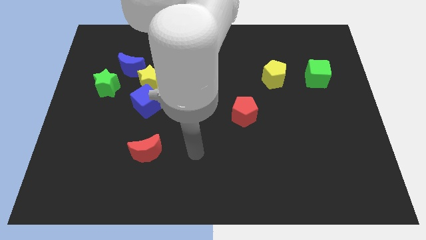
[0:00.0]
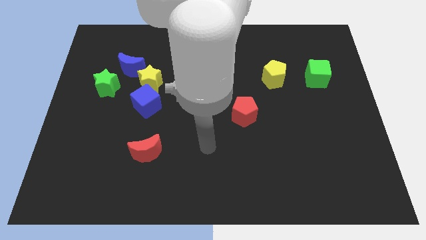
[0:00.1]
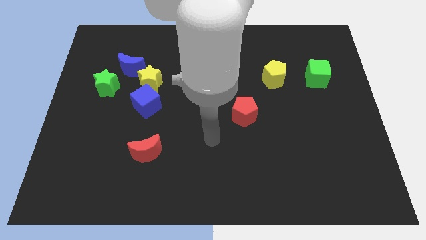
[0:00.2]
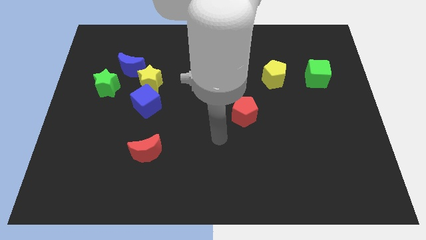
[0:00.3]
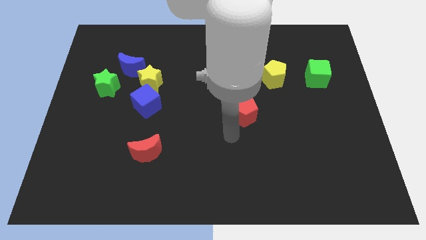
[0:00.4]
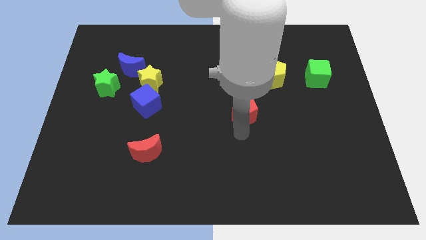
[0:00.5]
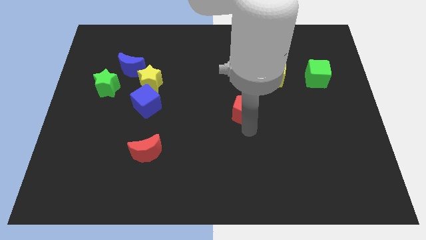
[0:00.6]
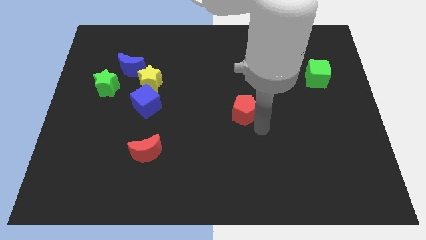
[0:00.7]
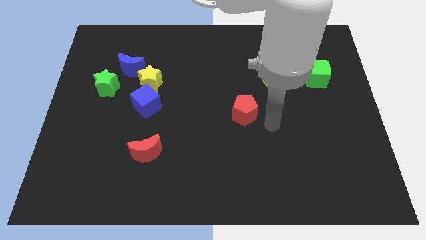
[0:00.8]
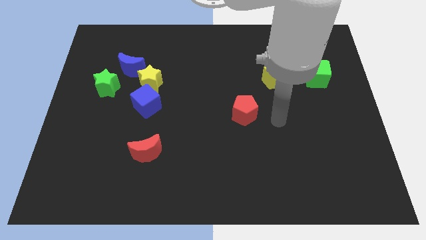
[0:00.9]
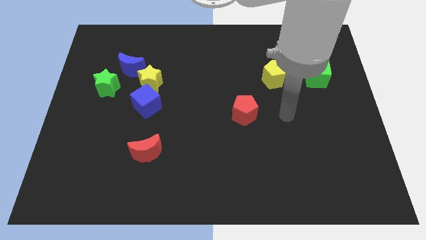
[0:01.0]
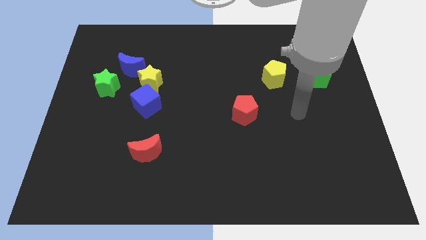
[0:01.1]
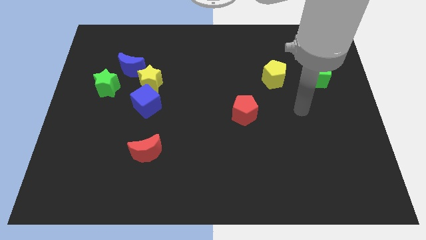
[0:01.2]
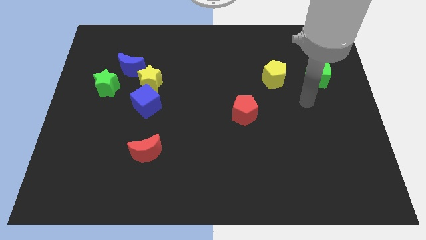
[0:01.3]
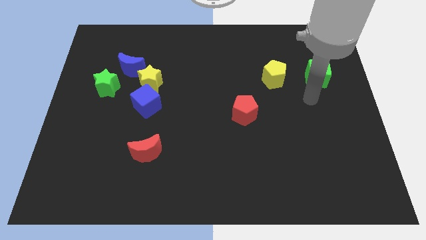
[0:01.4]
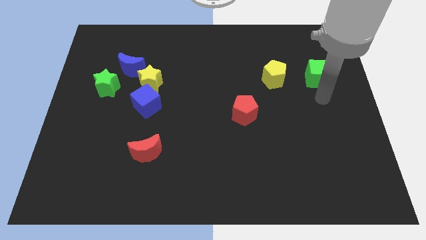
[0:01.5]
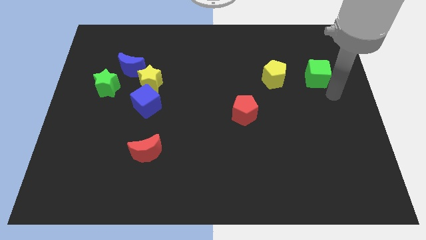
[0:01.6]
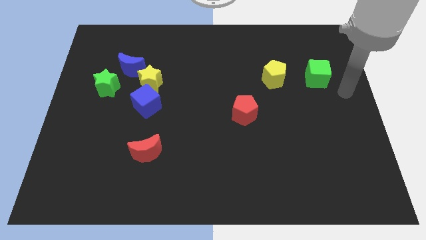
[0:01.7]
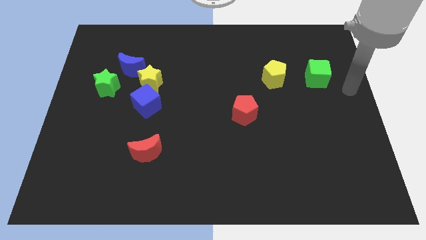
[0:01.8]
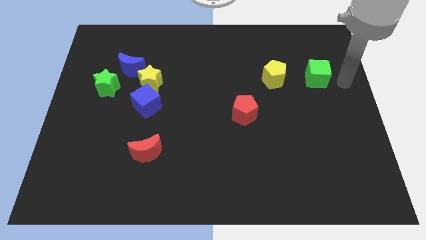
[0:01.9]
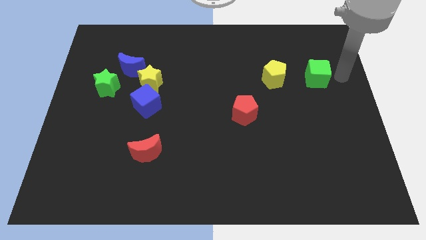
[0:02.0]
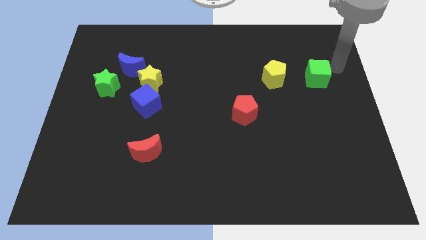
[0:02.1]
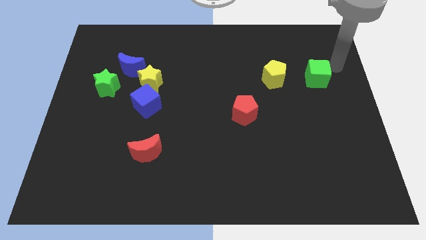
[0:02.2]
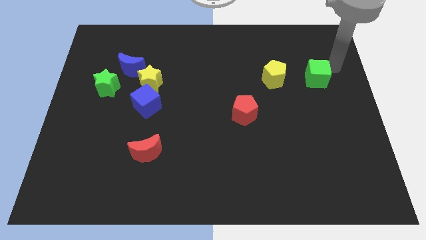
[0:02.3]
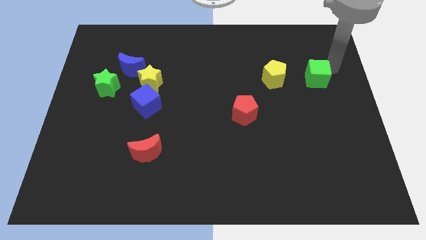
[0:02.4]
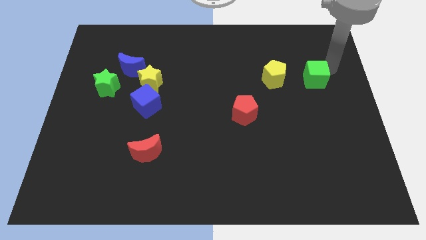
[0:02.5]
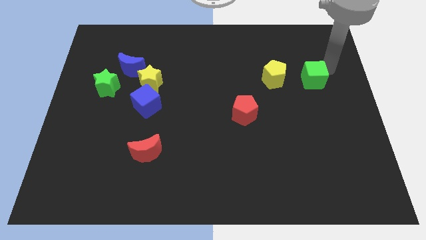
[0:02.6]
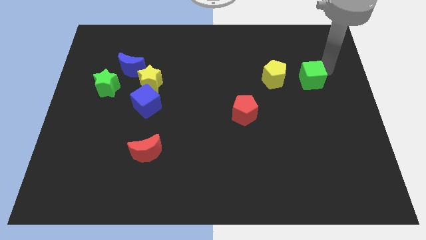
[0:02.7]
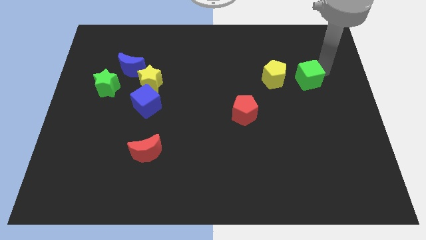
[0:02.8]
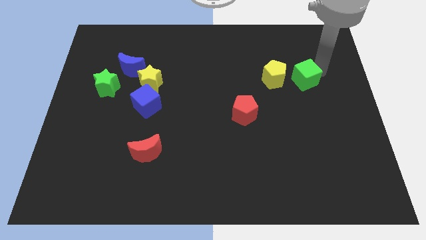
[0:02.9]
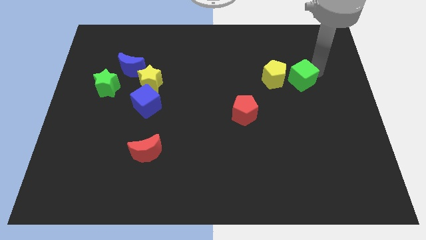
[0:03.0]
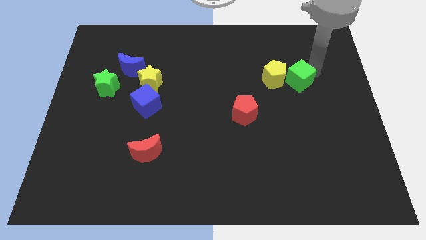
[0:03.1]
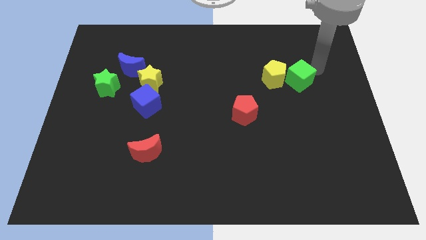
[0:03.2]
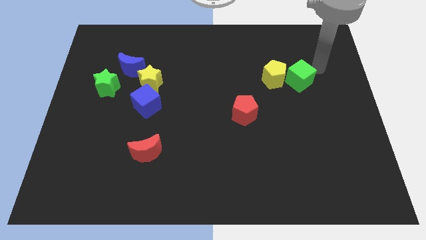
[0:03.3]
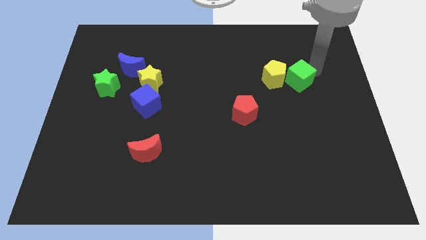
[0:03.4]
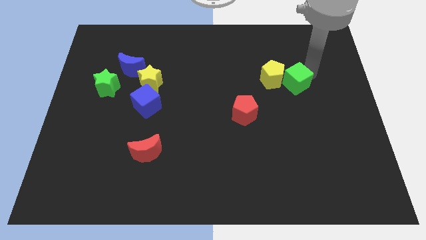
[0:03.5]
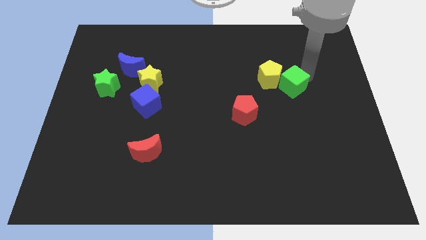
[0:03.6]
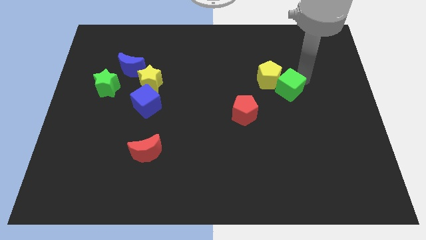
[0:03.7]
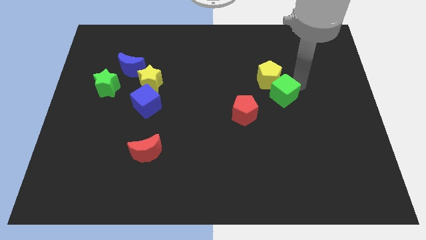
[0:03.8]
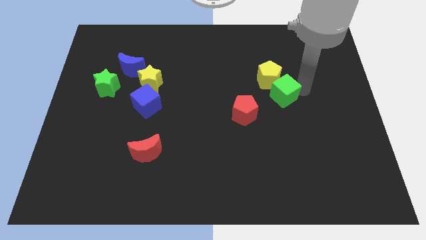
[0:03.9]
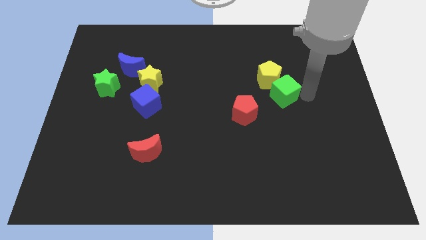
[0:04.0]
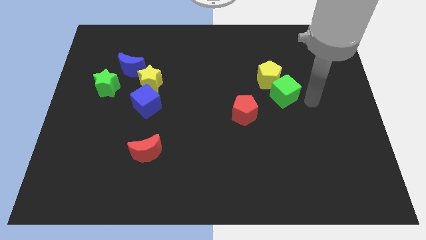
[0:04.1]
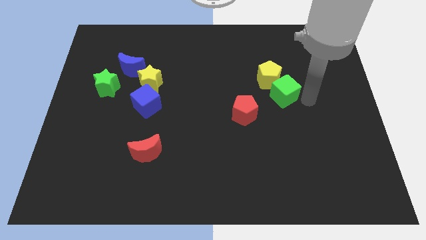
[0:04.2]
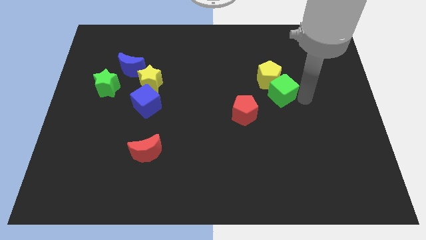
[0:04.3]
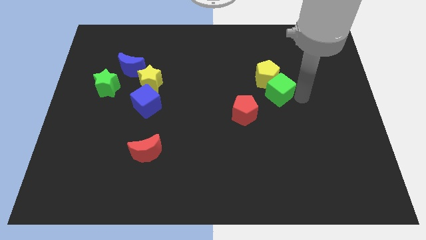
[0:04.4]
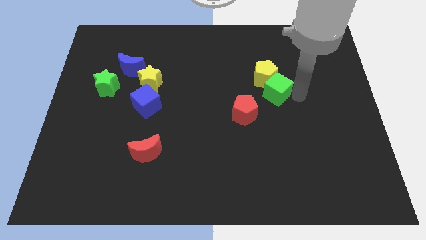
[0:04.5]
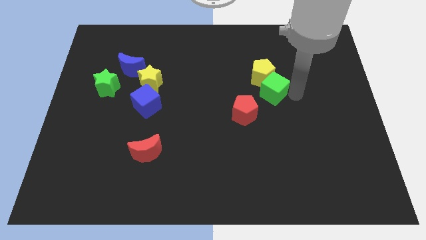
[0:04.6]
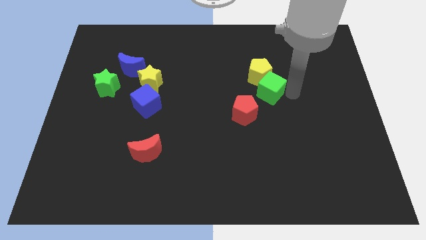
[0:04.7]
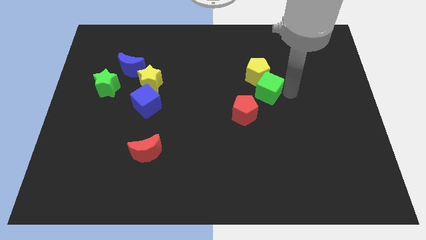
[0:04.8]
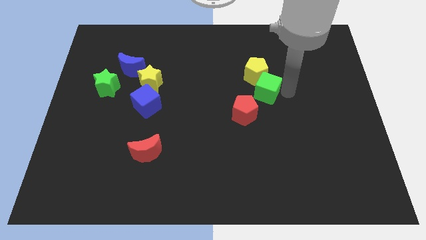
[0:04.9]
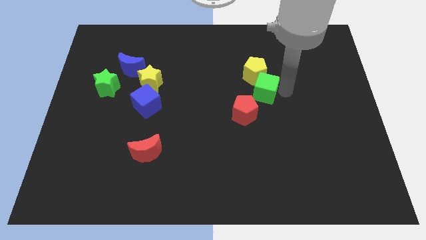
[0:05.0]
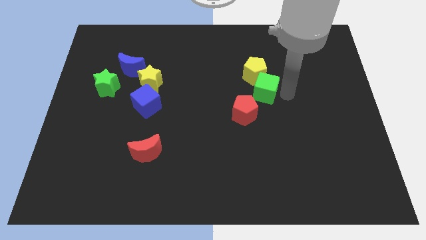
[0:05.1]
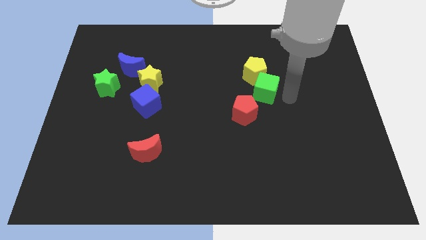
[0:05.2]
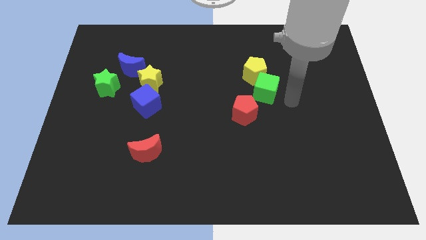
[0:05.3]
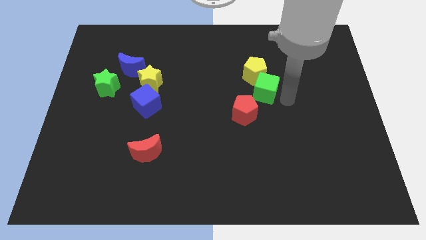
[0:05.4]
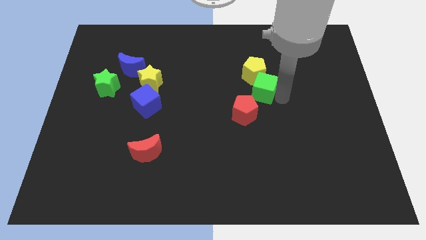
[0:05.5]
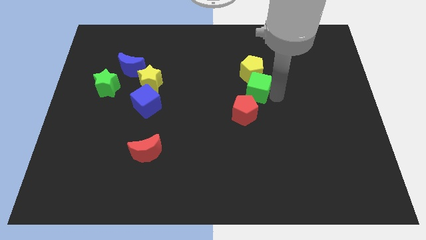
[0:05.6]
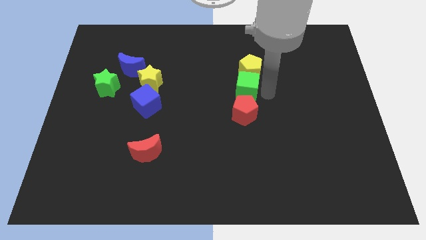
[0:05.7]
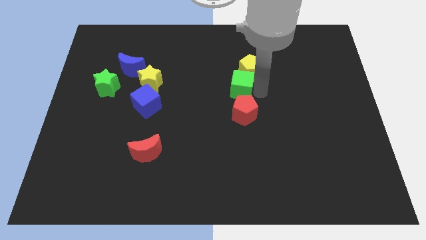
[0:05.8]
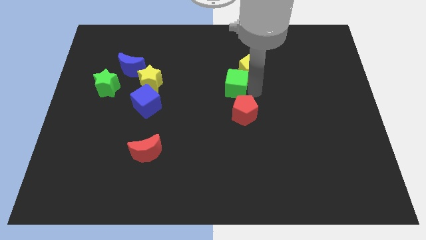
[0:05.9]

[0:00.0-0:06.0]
push the green cube left

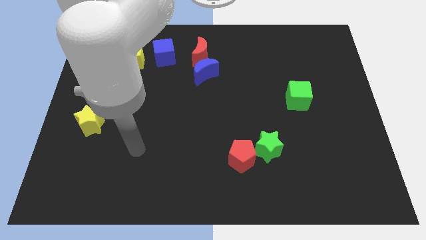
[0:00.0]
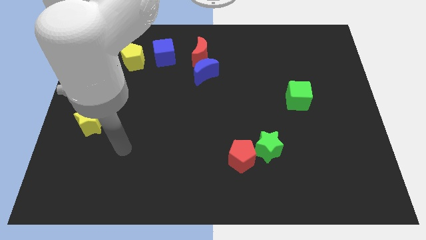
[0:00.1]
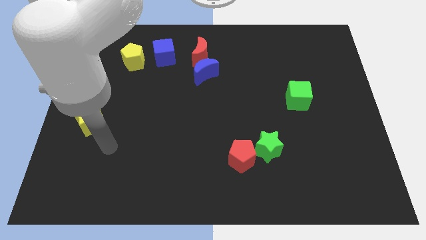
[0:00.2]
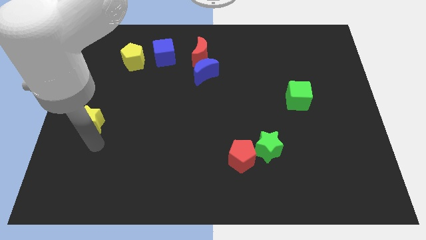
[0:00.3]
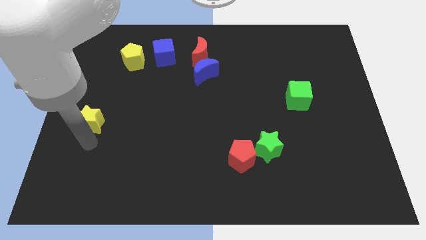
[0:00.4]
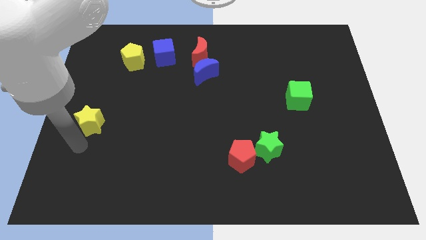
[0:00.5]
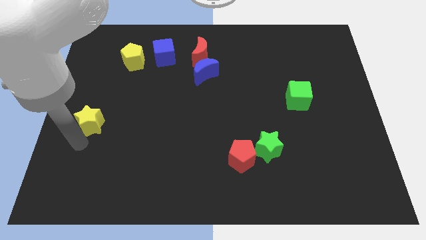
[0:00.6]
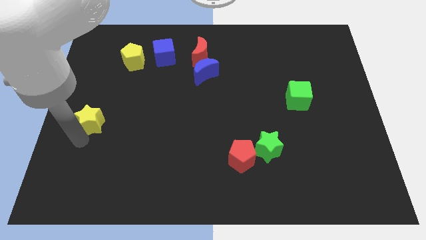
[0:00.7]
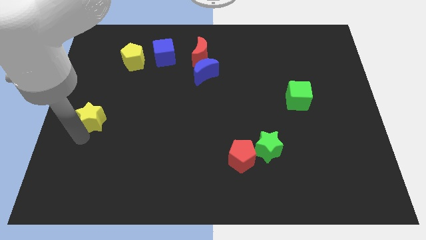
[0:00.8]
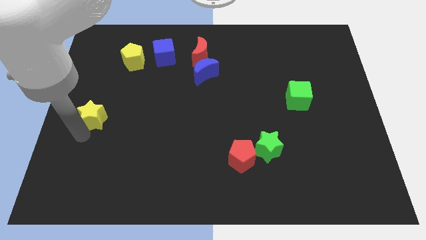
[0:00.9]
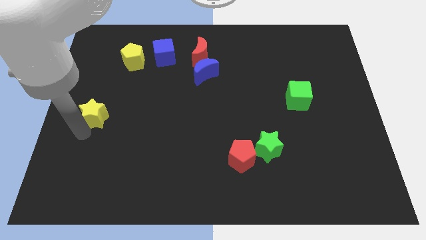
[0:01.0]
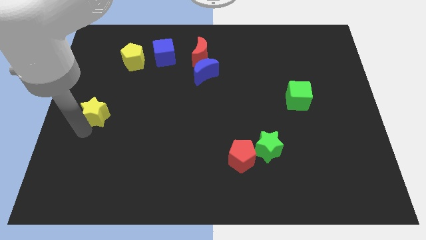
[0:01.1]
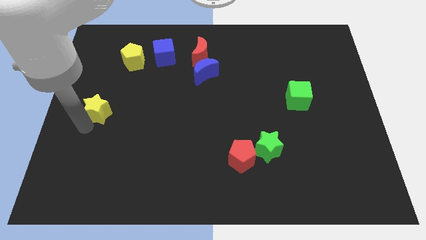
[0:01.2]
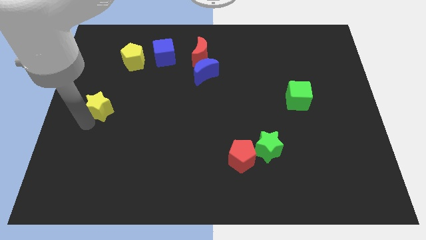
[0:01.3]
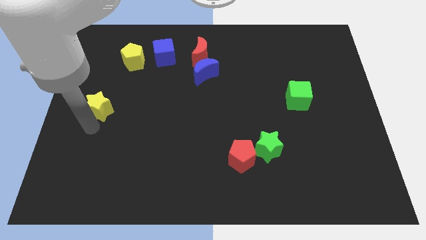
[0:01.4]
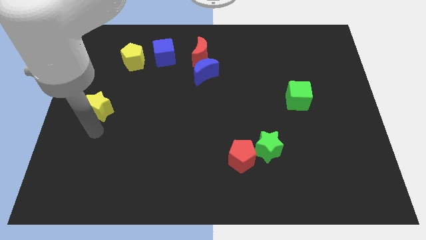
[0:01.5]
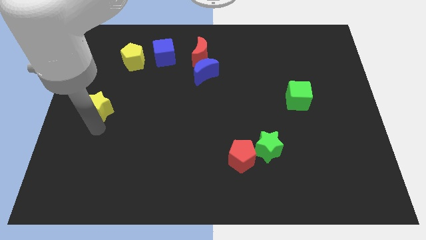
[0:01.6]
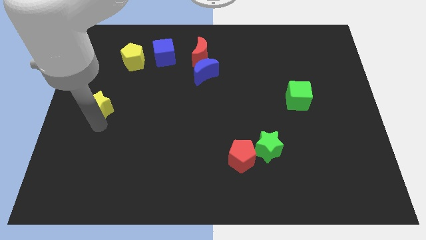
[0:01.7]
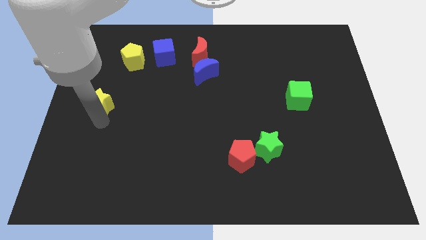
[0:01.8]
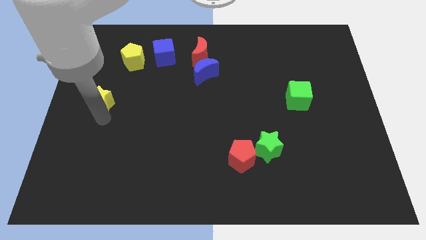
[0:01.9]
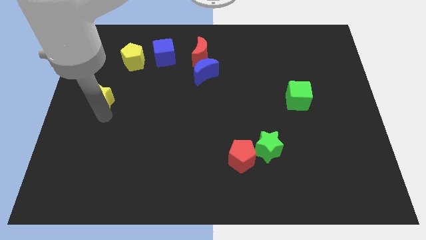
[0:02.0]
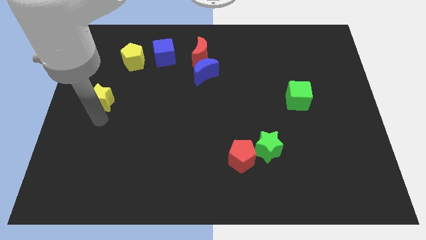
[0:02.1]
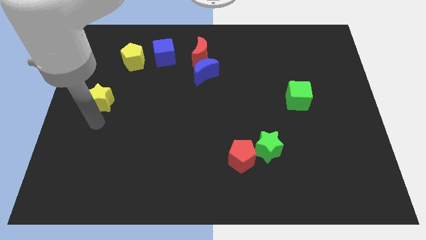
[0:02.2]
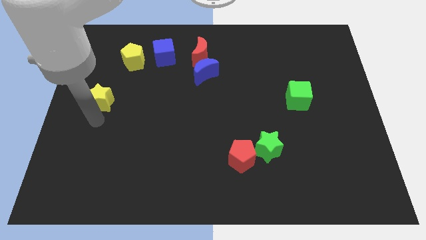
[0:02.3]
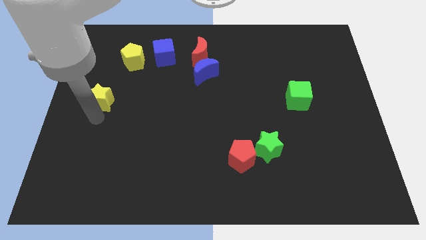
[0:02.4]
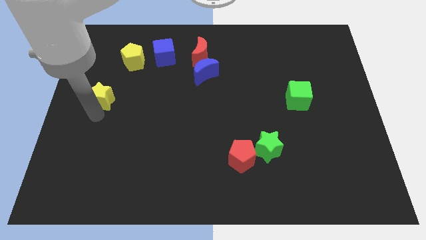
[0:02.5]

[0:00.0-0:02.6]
slide the yellow star upwards a little
